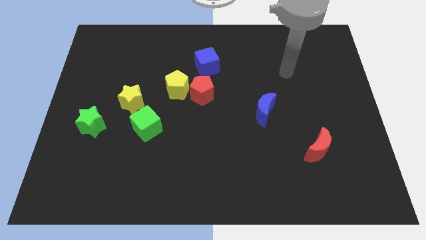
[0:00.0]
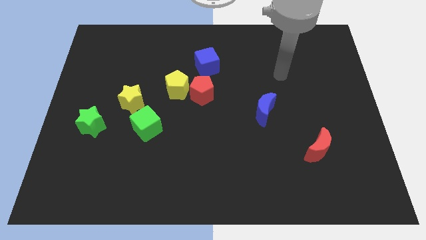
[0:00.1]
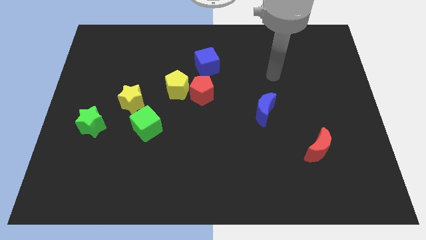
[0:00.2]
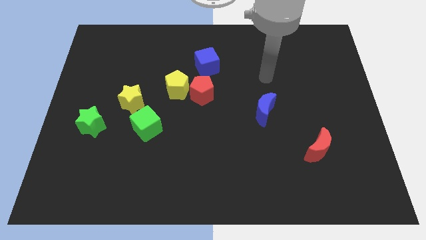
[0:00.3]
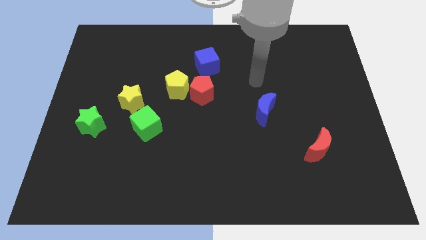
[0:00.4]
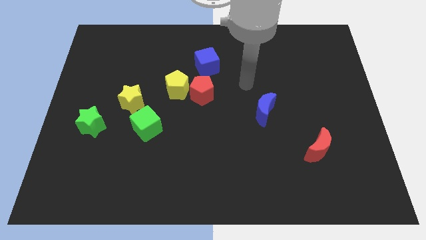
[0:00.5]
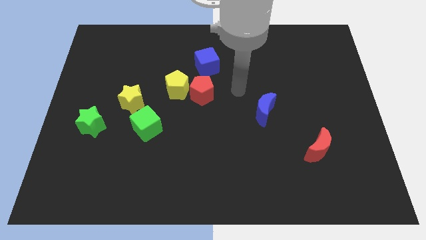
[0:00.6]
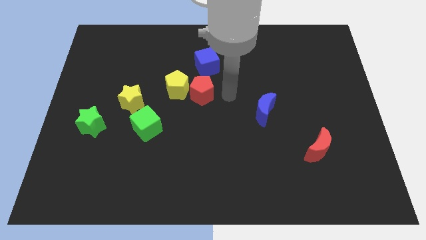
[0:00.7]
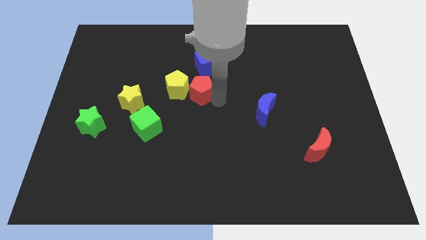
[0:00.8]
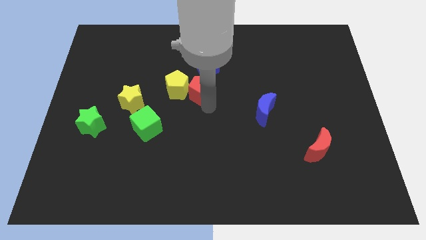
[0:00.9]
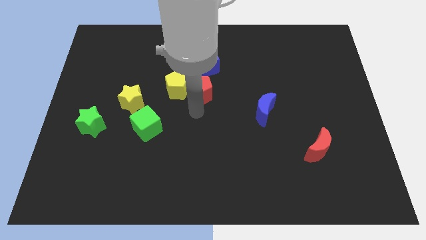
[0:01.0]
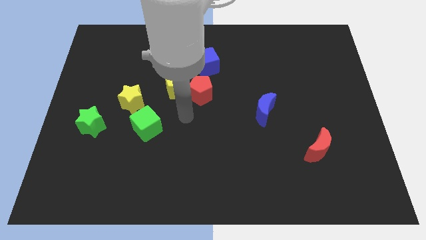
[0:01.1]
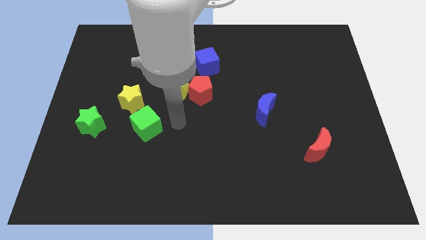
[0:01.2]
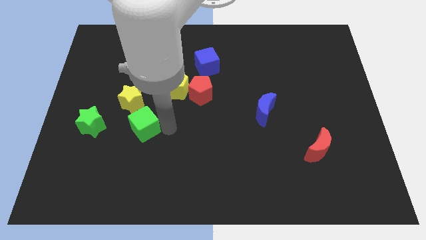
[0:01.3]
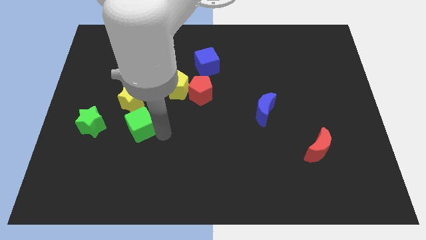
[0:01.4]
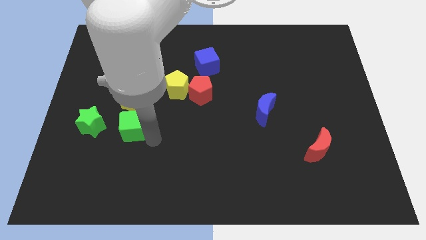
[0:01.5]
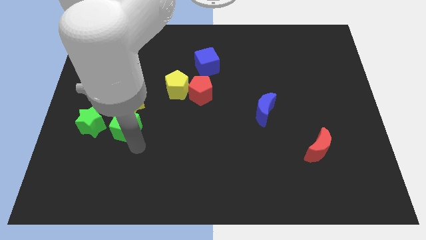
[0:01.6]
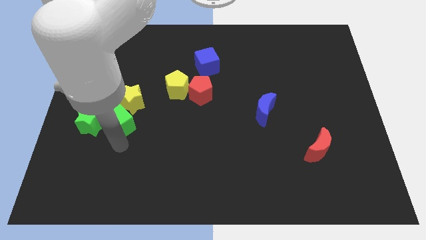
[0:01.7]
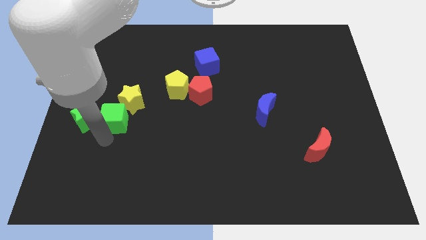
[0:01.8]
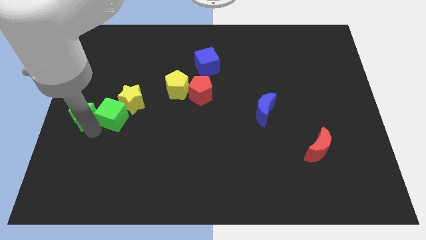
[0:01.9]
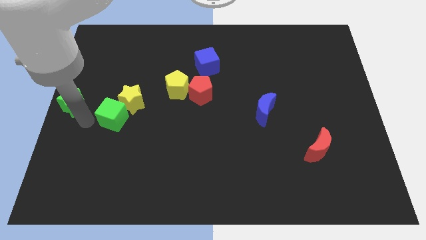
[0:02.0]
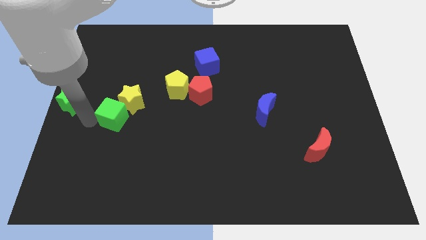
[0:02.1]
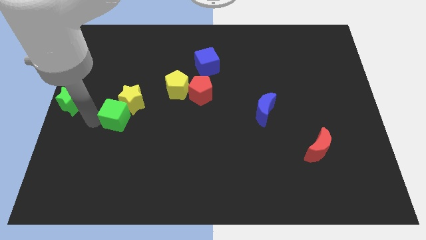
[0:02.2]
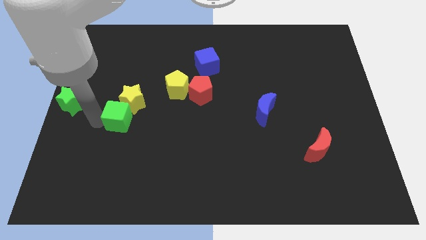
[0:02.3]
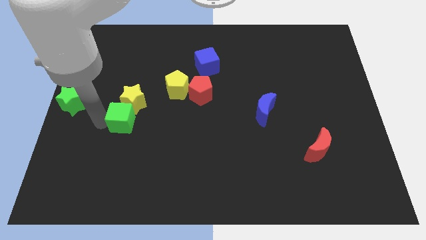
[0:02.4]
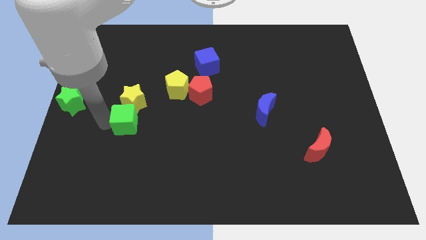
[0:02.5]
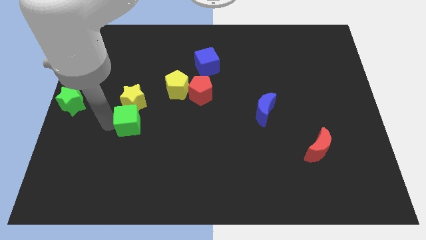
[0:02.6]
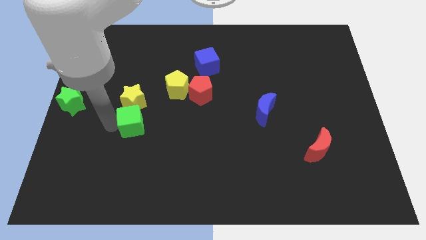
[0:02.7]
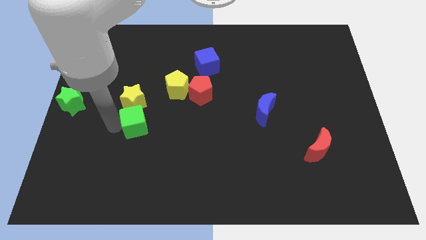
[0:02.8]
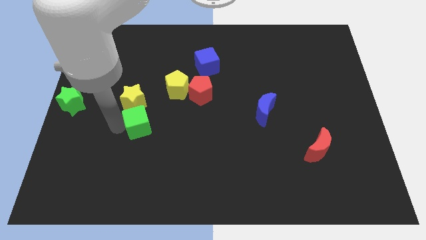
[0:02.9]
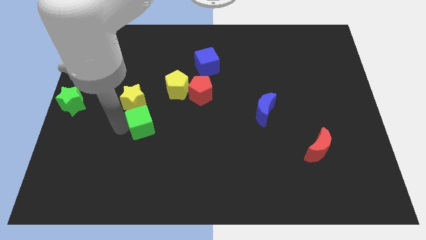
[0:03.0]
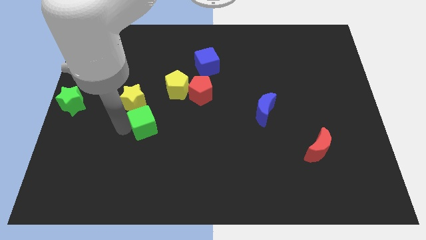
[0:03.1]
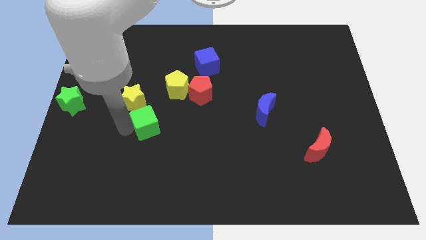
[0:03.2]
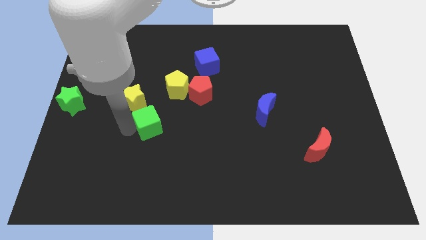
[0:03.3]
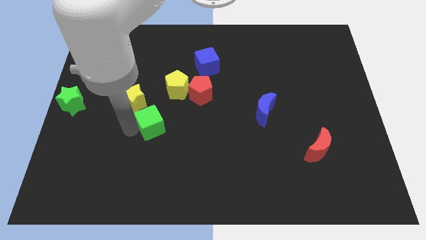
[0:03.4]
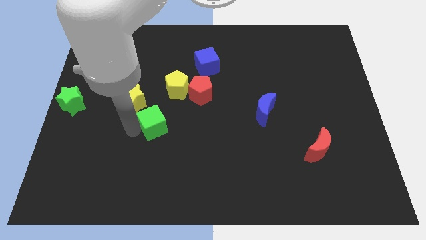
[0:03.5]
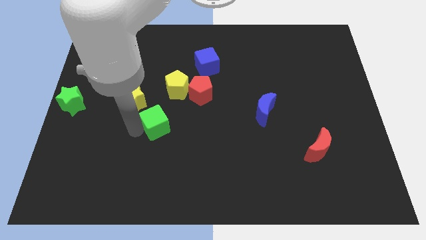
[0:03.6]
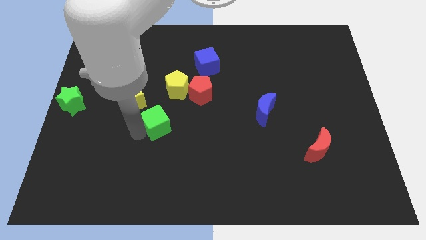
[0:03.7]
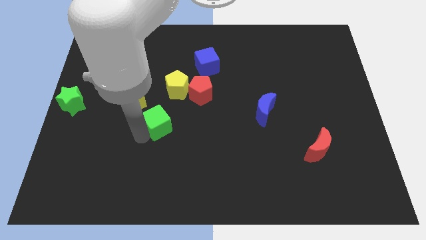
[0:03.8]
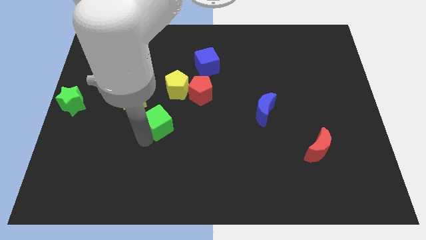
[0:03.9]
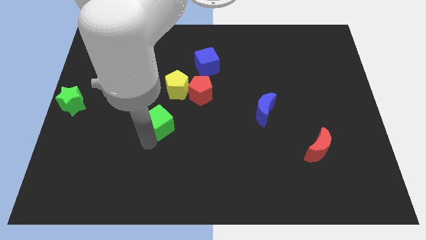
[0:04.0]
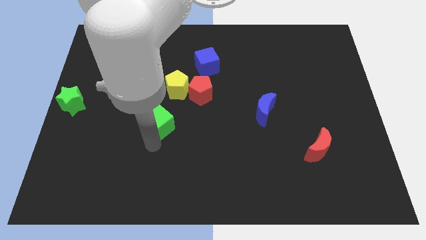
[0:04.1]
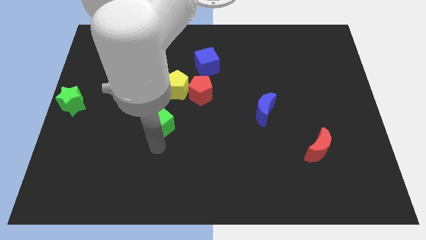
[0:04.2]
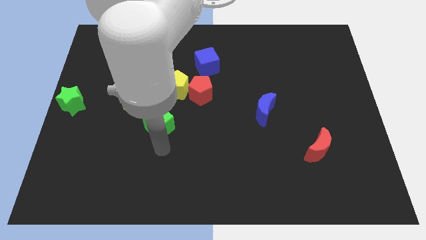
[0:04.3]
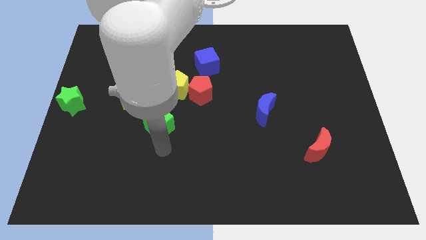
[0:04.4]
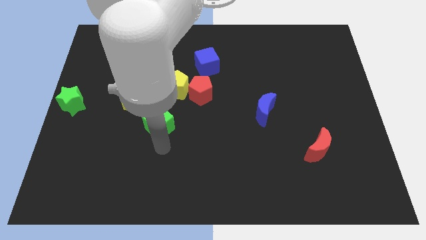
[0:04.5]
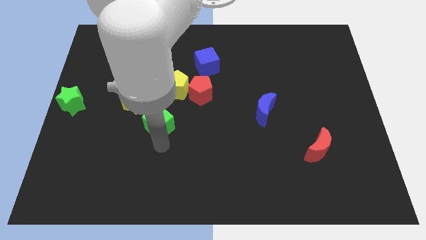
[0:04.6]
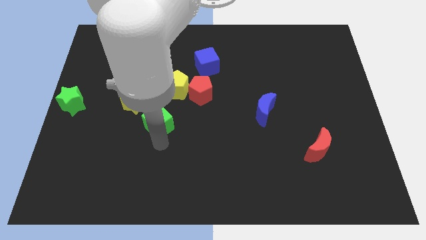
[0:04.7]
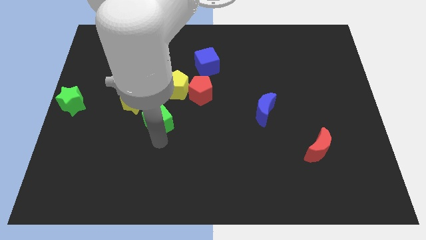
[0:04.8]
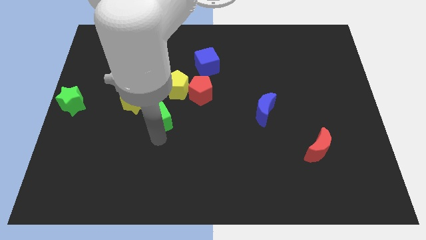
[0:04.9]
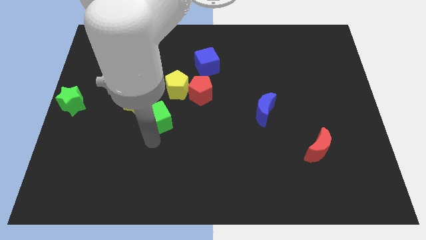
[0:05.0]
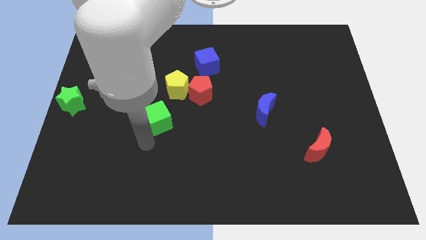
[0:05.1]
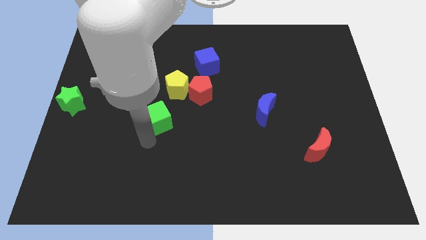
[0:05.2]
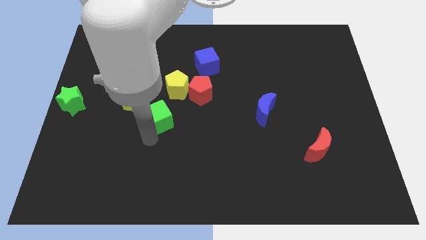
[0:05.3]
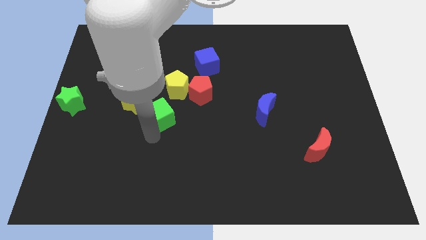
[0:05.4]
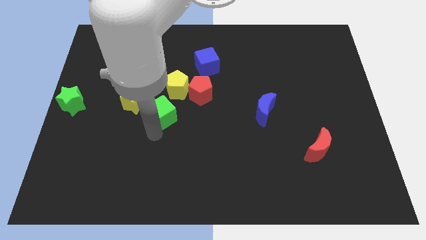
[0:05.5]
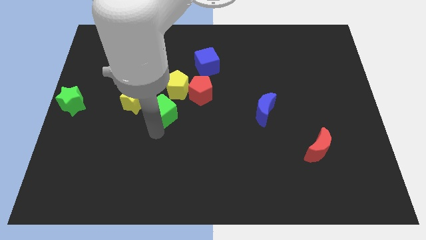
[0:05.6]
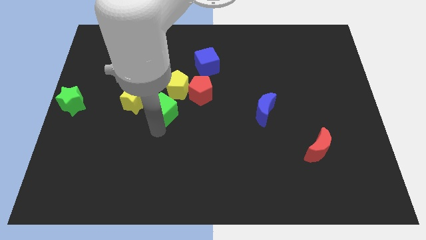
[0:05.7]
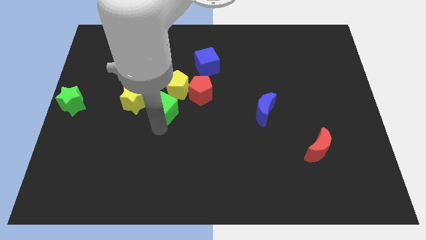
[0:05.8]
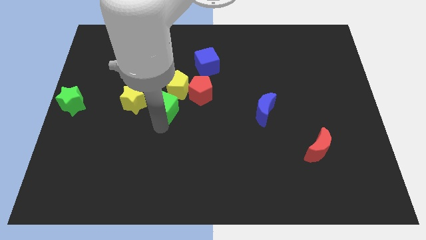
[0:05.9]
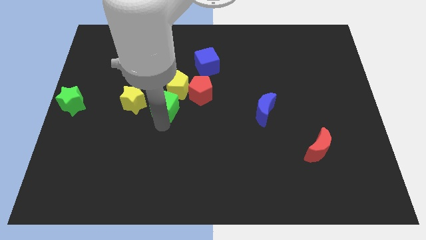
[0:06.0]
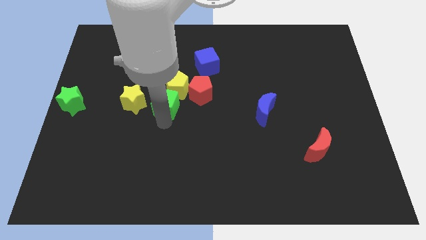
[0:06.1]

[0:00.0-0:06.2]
slide the green cube to the yellow pentagon

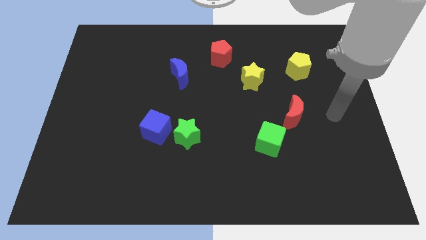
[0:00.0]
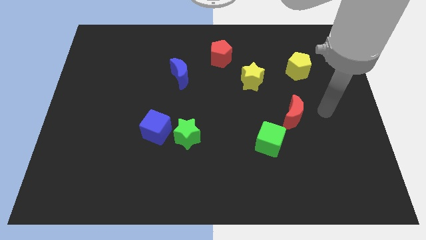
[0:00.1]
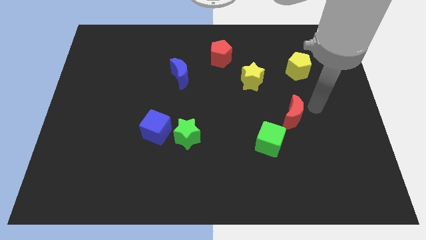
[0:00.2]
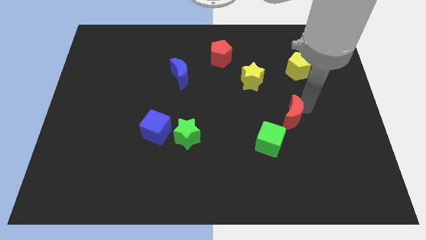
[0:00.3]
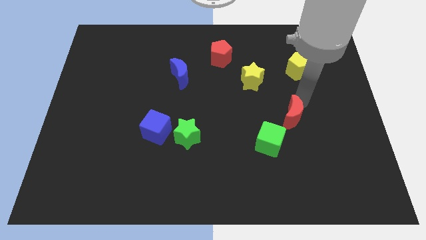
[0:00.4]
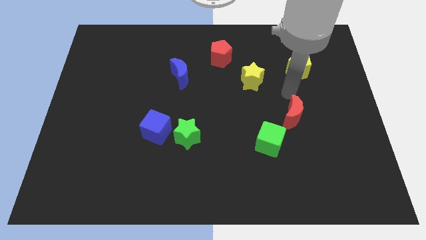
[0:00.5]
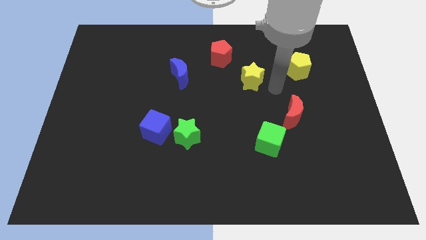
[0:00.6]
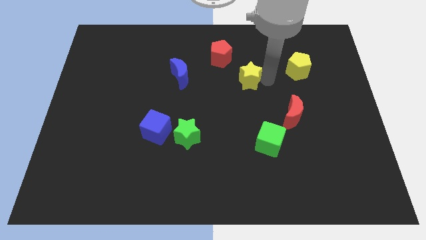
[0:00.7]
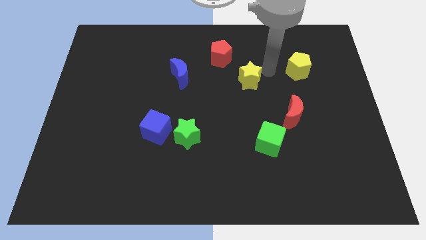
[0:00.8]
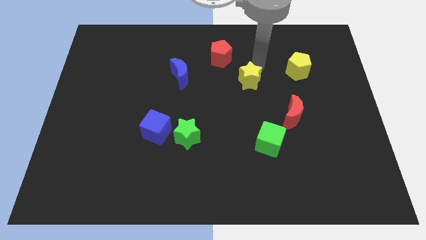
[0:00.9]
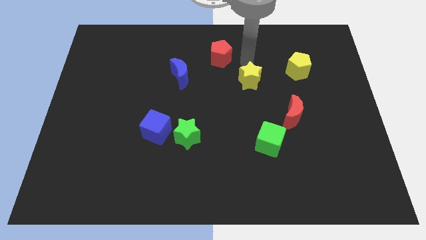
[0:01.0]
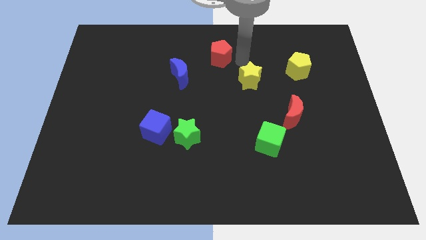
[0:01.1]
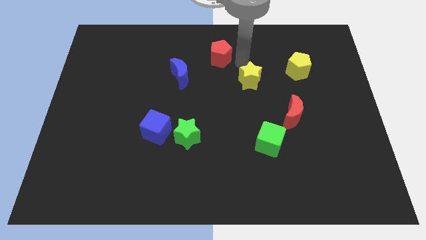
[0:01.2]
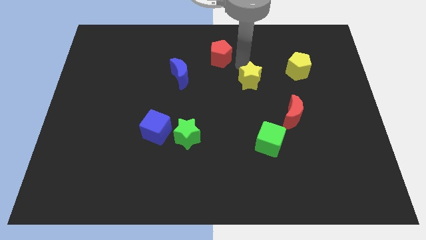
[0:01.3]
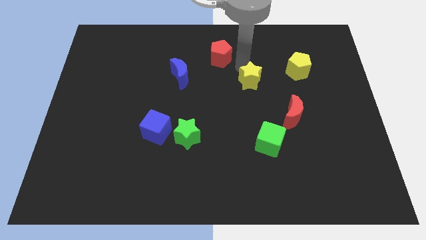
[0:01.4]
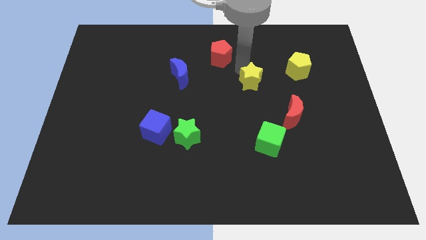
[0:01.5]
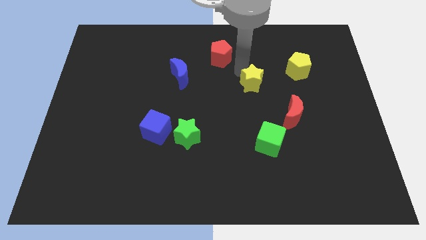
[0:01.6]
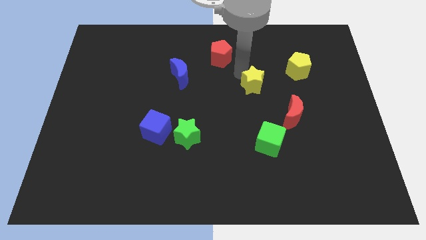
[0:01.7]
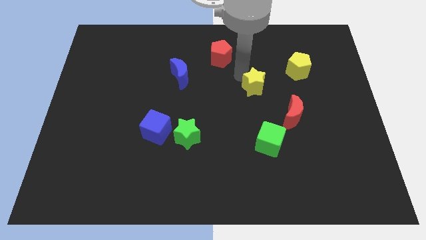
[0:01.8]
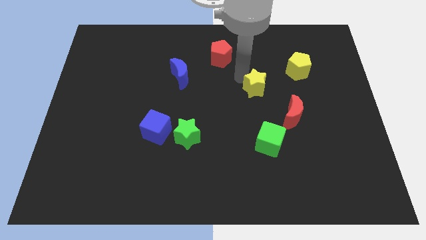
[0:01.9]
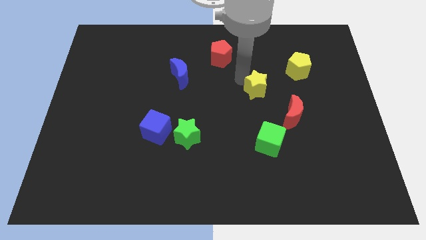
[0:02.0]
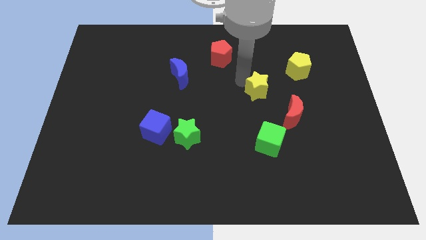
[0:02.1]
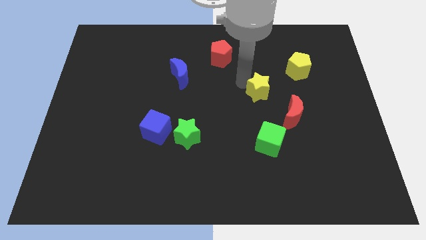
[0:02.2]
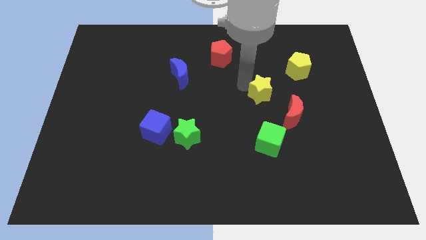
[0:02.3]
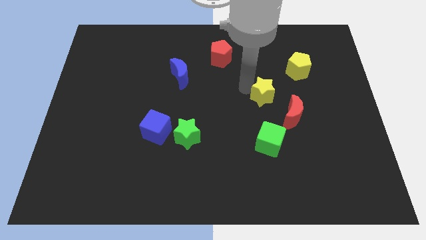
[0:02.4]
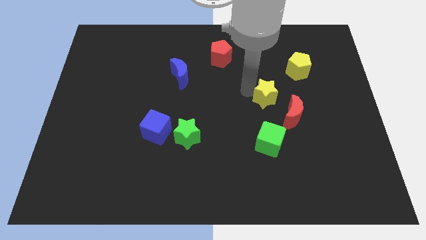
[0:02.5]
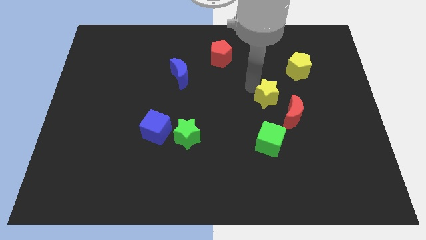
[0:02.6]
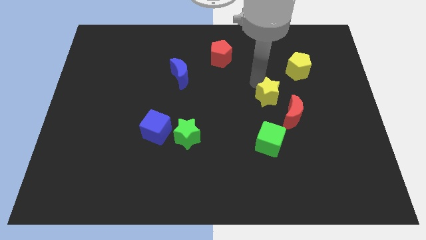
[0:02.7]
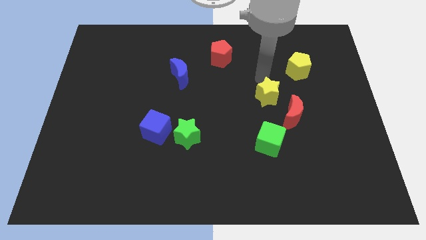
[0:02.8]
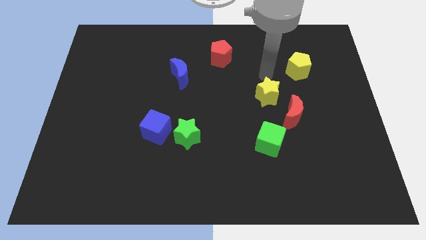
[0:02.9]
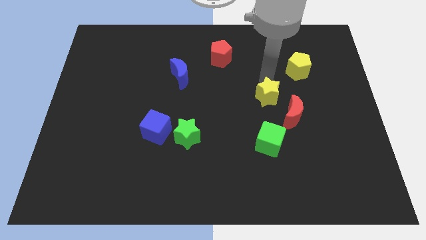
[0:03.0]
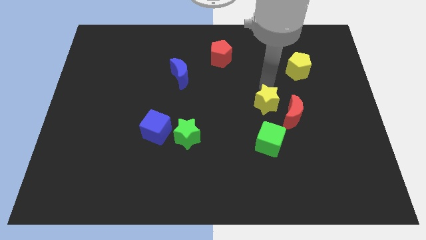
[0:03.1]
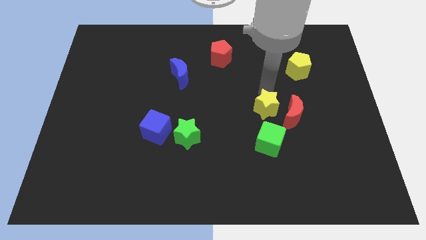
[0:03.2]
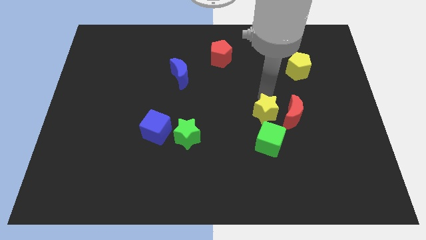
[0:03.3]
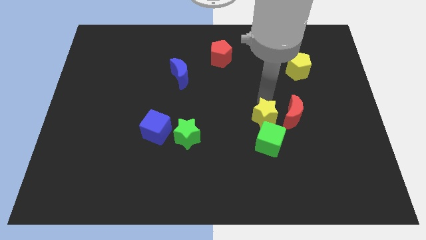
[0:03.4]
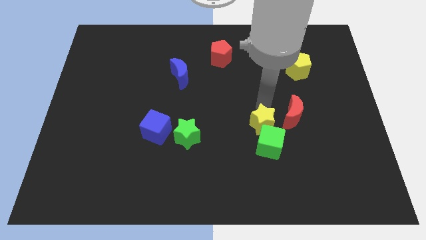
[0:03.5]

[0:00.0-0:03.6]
slide the yellow star to the green cube
